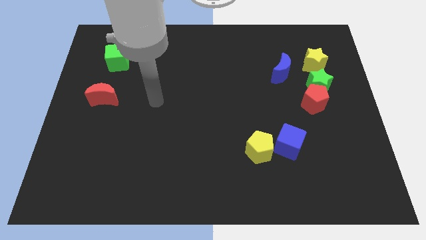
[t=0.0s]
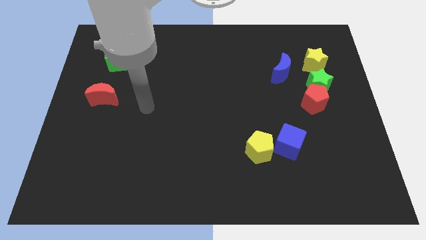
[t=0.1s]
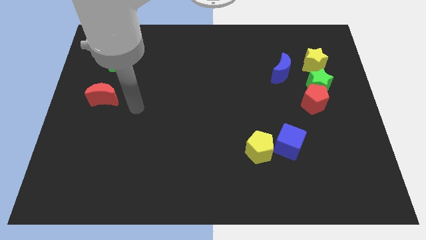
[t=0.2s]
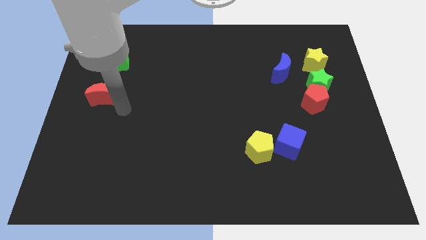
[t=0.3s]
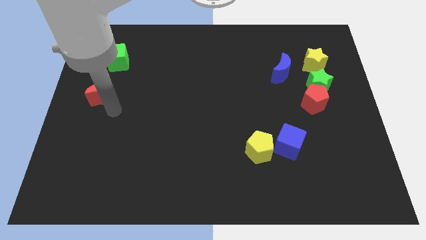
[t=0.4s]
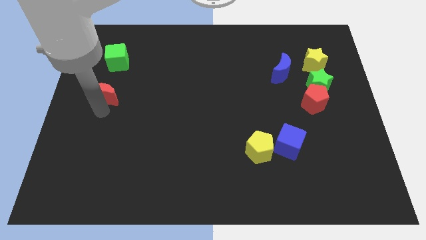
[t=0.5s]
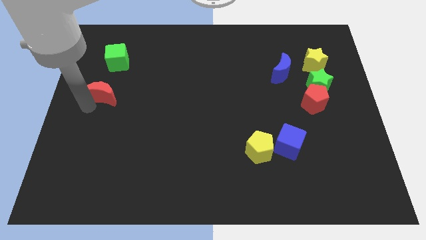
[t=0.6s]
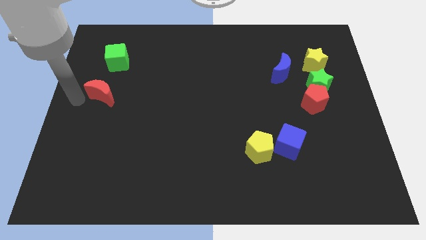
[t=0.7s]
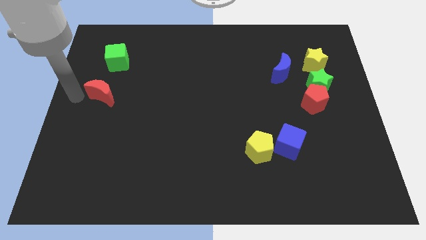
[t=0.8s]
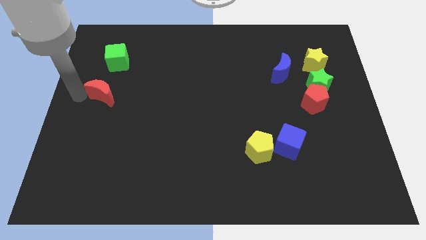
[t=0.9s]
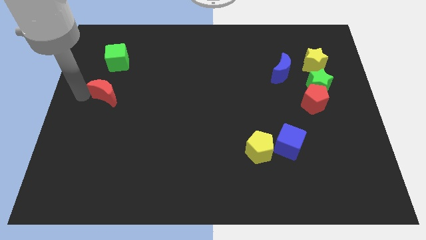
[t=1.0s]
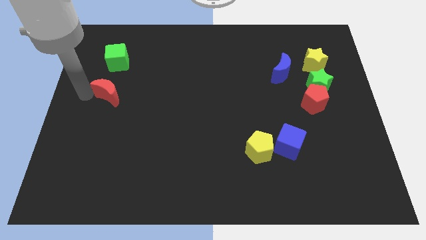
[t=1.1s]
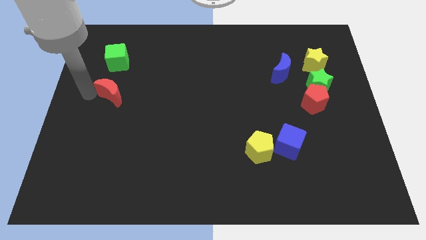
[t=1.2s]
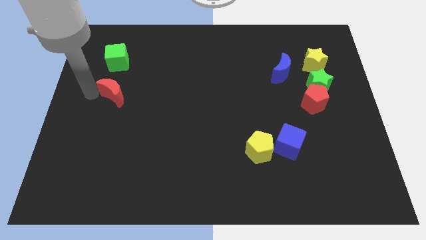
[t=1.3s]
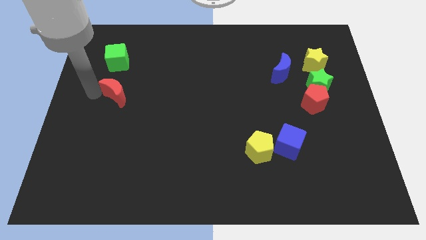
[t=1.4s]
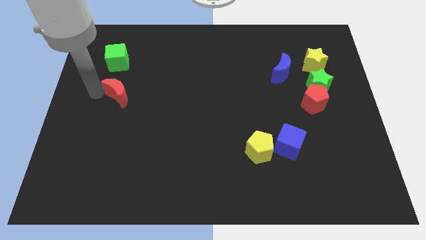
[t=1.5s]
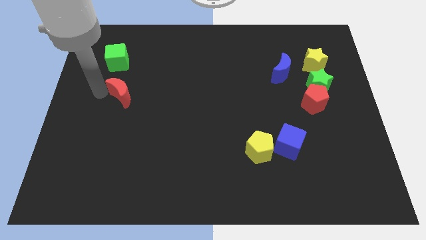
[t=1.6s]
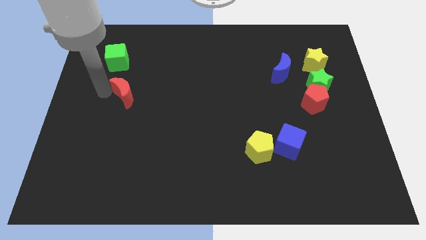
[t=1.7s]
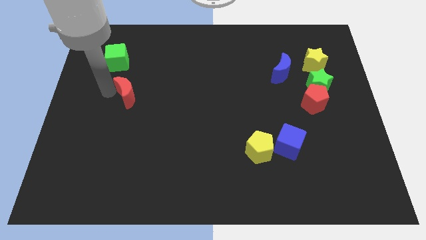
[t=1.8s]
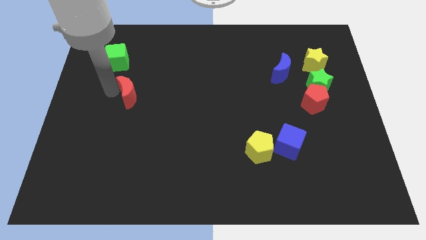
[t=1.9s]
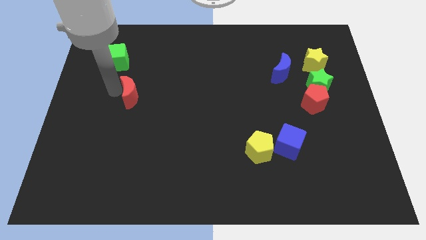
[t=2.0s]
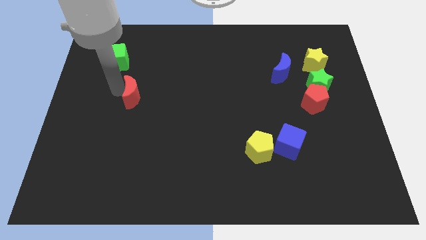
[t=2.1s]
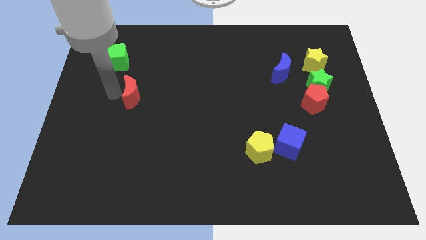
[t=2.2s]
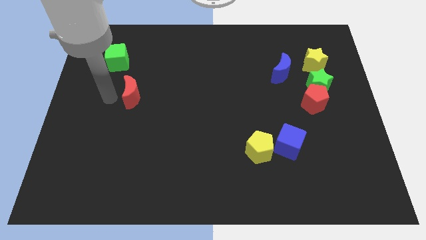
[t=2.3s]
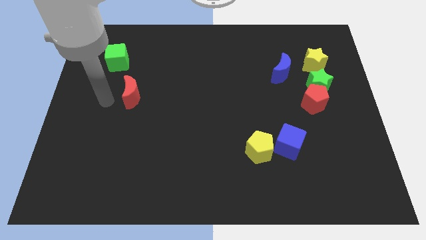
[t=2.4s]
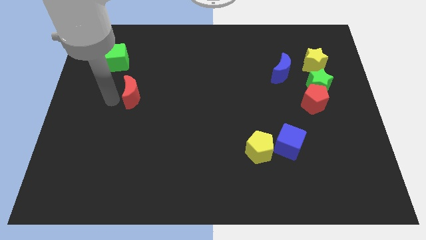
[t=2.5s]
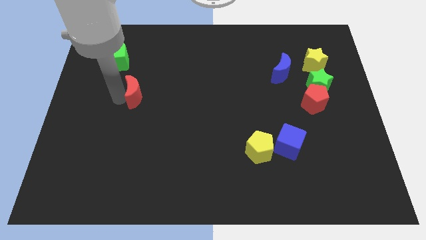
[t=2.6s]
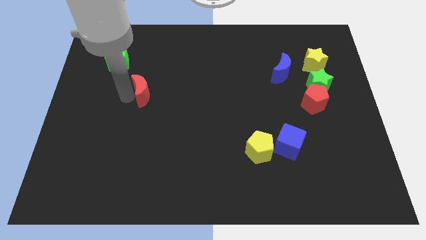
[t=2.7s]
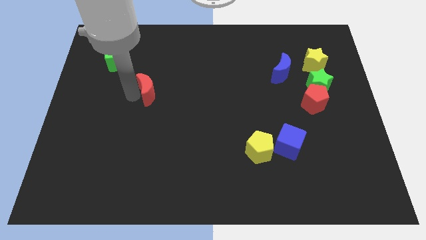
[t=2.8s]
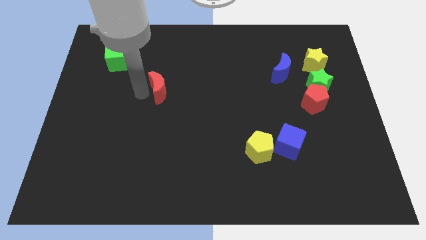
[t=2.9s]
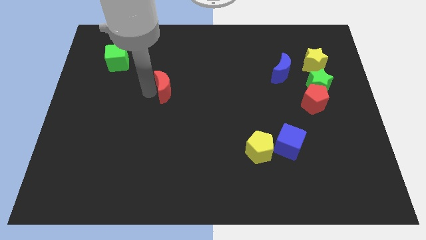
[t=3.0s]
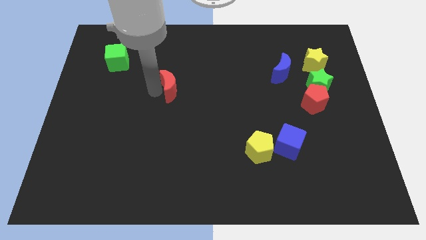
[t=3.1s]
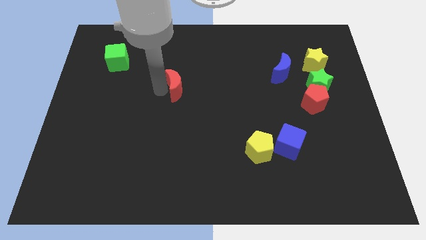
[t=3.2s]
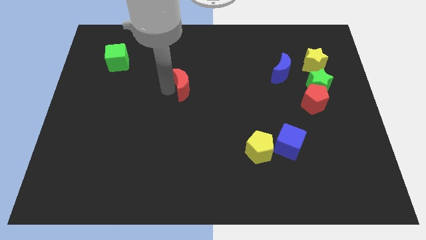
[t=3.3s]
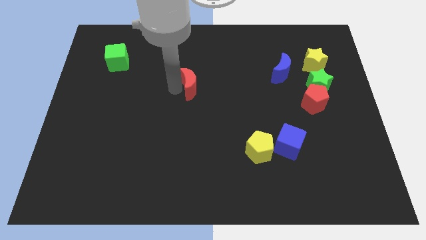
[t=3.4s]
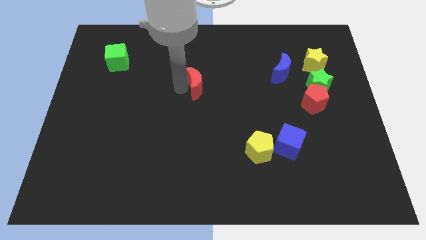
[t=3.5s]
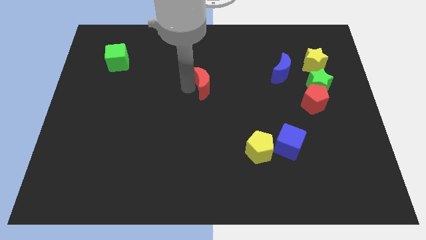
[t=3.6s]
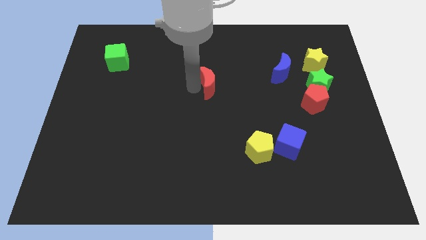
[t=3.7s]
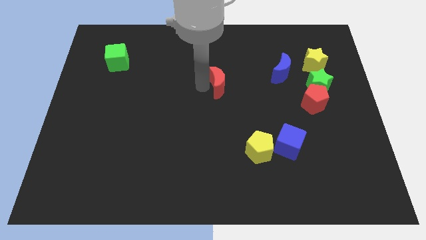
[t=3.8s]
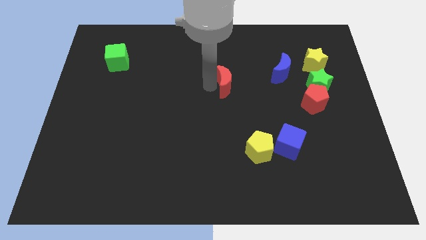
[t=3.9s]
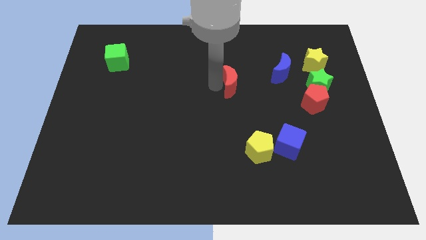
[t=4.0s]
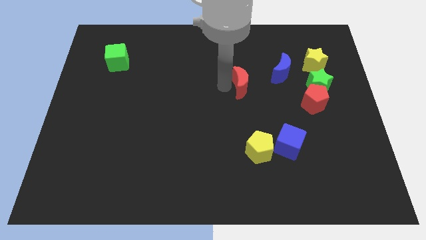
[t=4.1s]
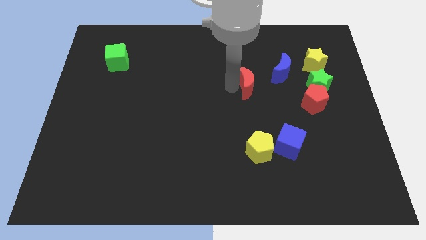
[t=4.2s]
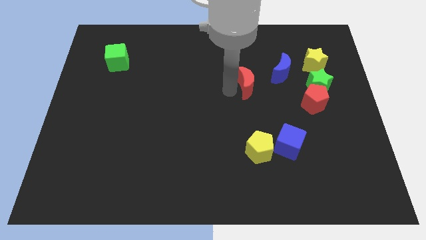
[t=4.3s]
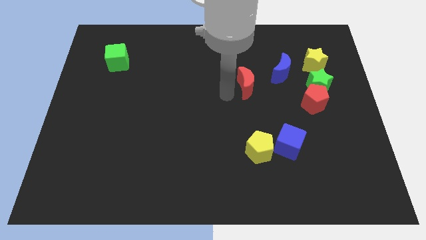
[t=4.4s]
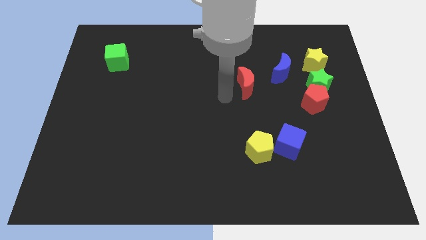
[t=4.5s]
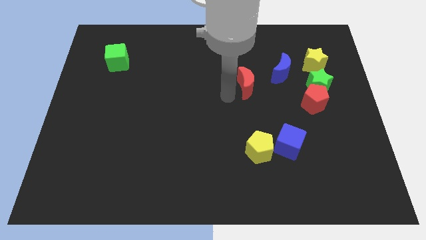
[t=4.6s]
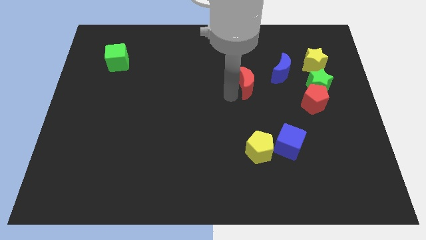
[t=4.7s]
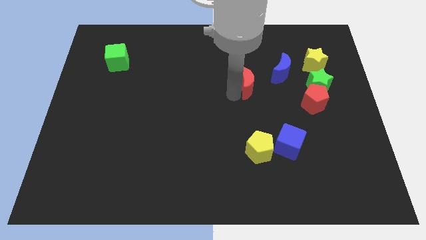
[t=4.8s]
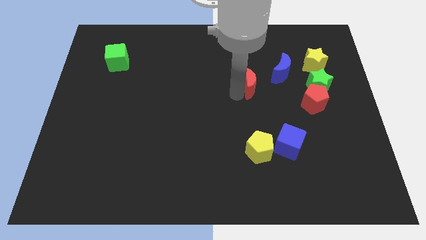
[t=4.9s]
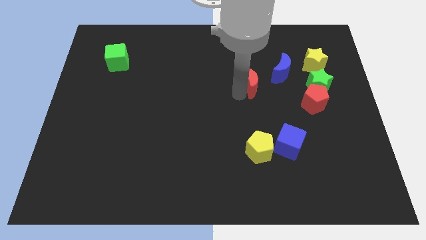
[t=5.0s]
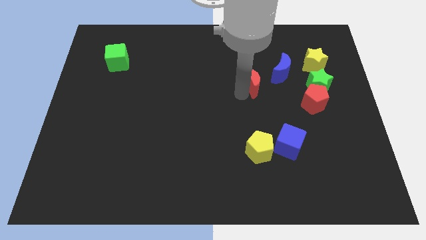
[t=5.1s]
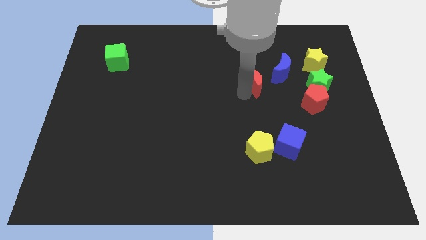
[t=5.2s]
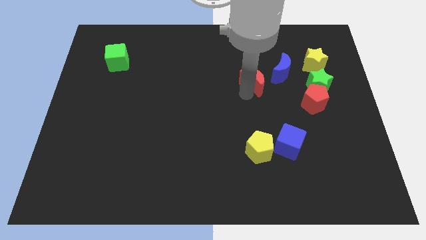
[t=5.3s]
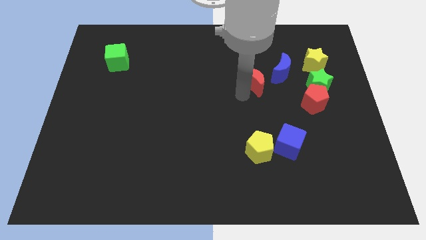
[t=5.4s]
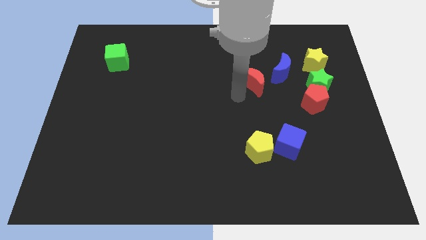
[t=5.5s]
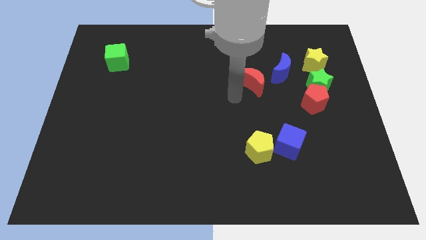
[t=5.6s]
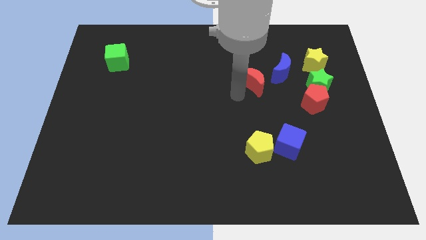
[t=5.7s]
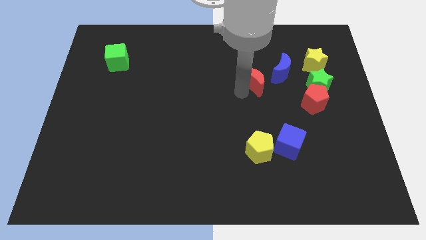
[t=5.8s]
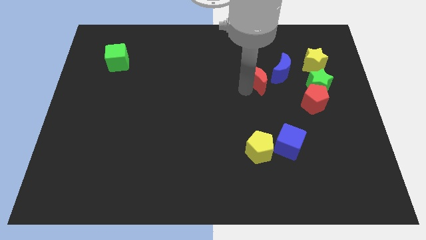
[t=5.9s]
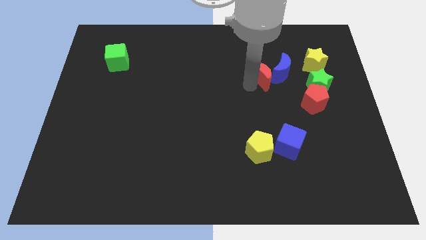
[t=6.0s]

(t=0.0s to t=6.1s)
slide the red moon next to the blue moon

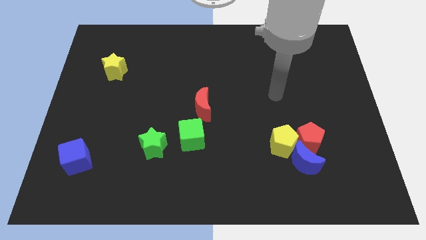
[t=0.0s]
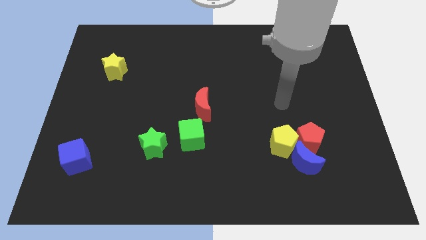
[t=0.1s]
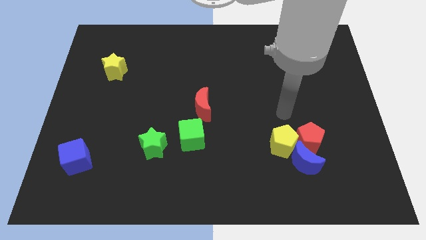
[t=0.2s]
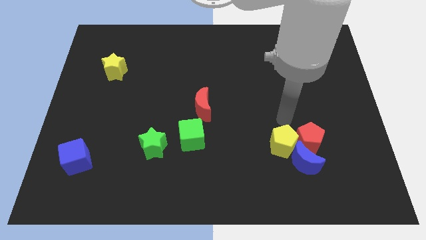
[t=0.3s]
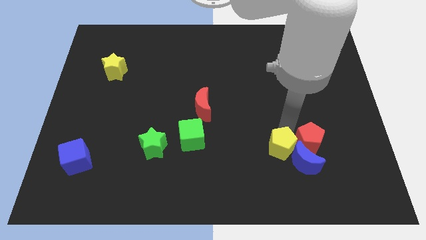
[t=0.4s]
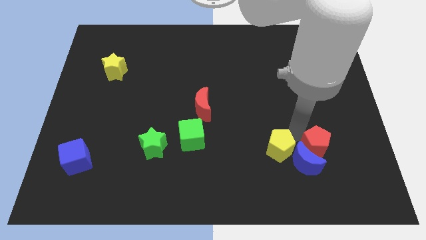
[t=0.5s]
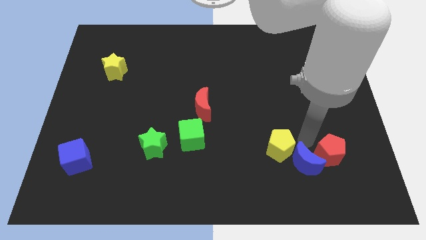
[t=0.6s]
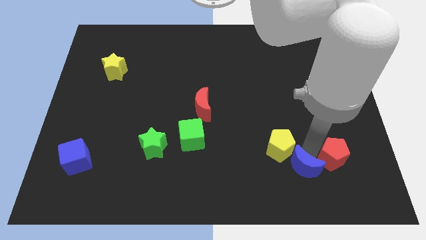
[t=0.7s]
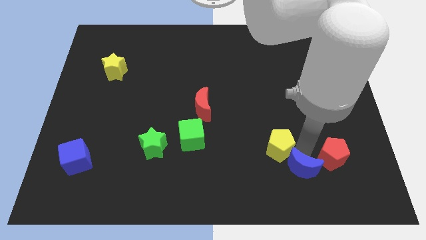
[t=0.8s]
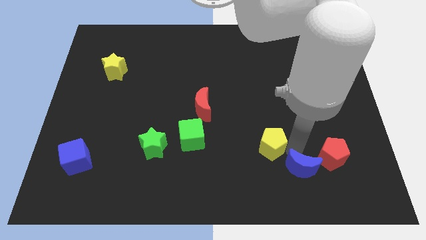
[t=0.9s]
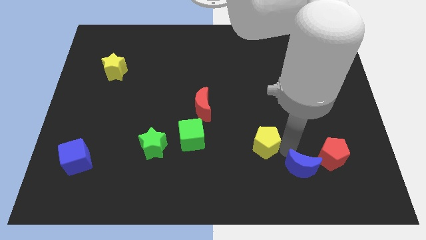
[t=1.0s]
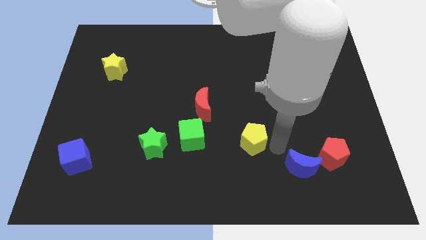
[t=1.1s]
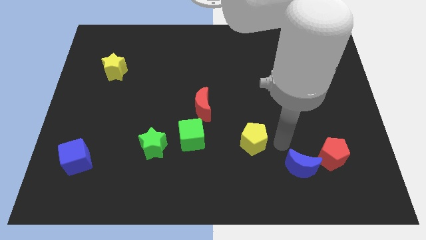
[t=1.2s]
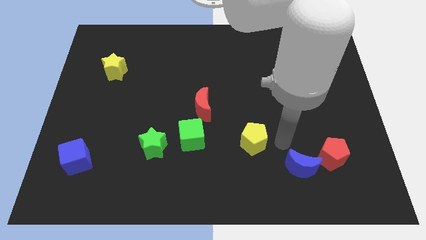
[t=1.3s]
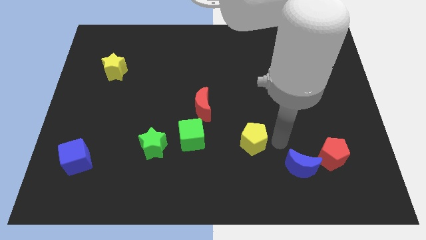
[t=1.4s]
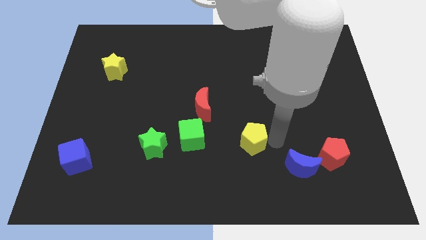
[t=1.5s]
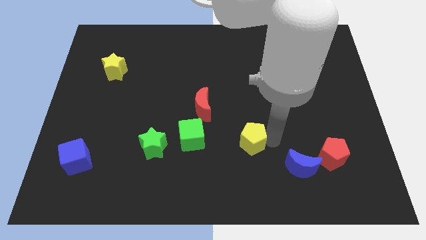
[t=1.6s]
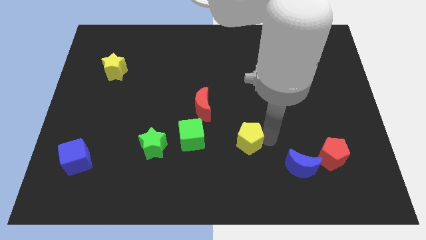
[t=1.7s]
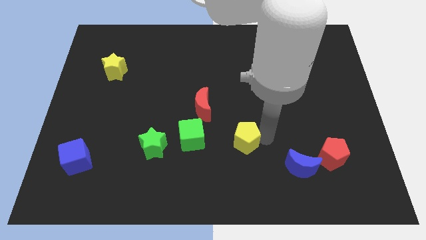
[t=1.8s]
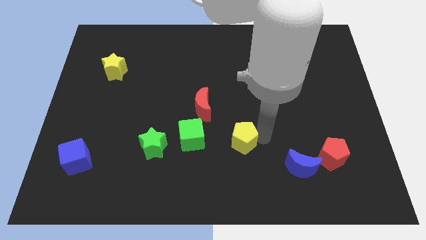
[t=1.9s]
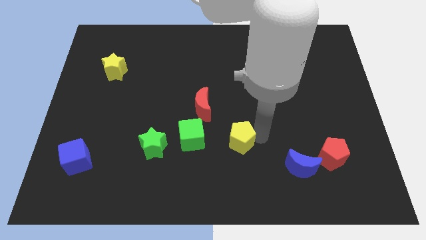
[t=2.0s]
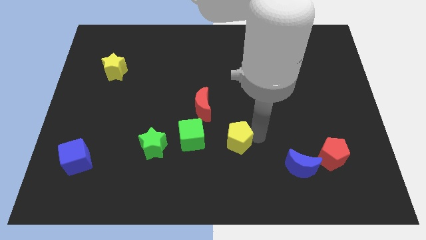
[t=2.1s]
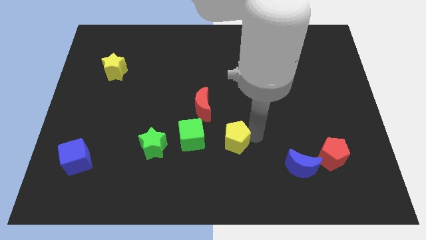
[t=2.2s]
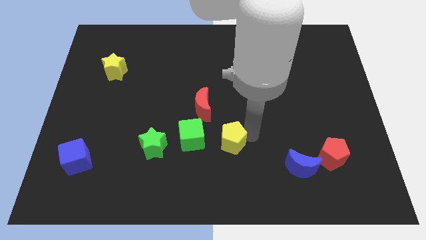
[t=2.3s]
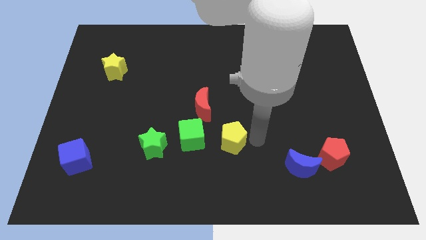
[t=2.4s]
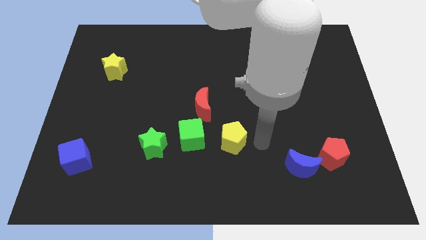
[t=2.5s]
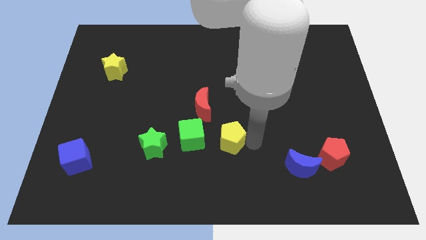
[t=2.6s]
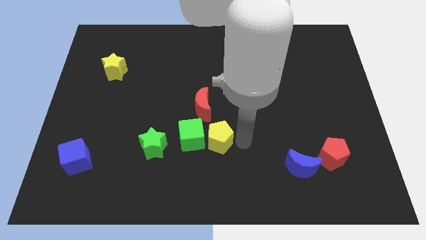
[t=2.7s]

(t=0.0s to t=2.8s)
slide the yellow pentagon next to the green cube
